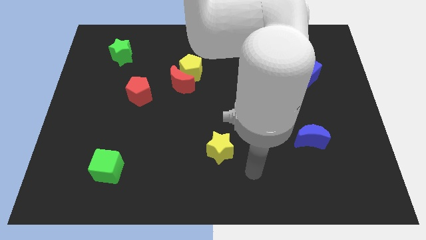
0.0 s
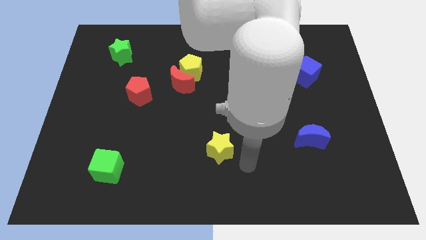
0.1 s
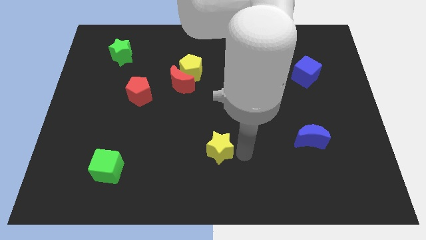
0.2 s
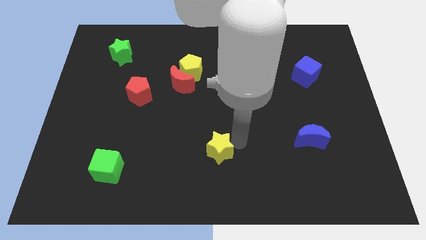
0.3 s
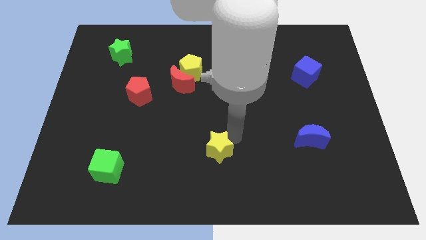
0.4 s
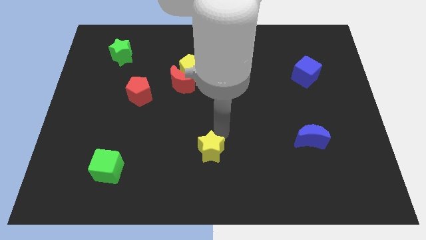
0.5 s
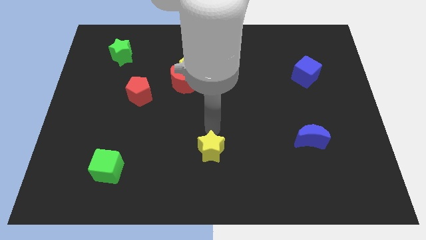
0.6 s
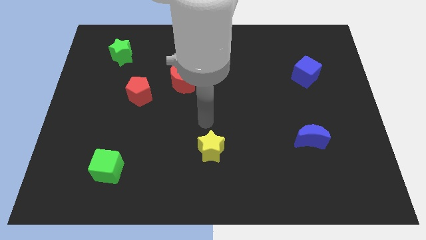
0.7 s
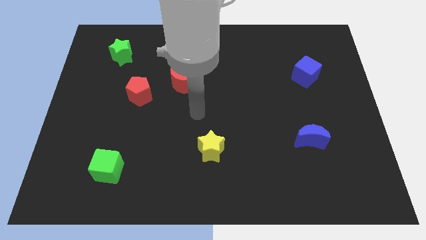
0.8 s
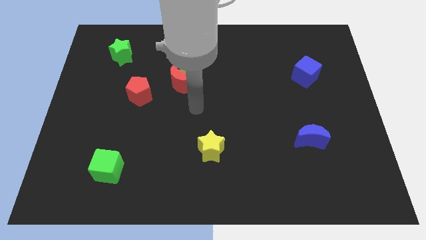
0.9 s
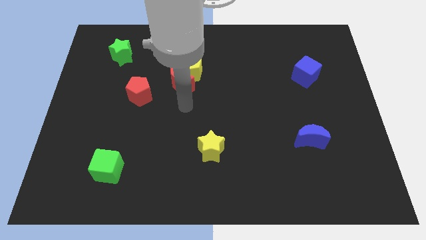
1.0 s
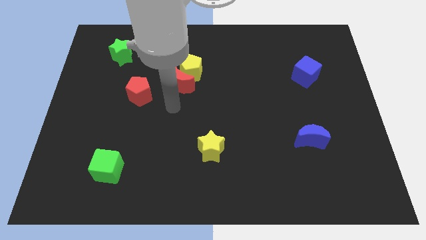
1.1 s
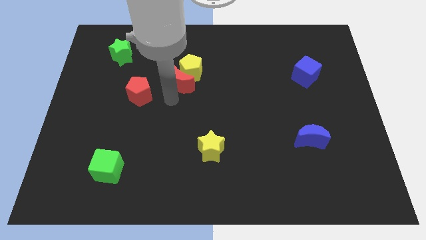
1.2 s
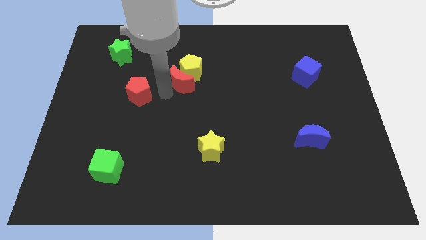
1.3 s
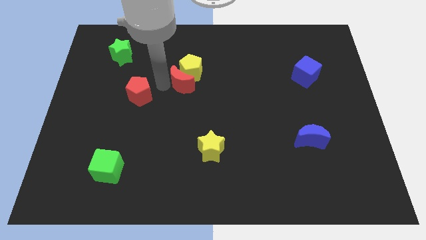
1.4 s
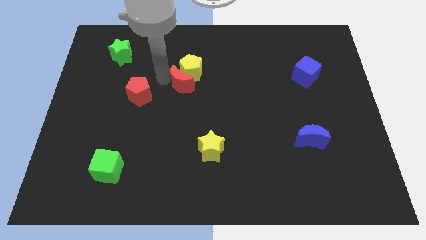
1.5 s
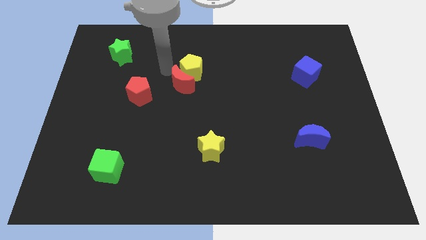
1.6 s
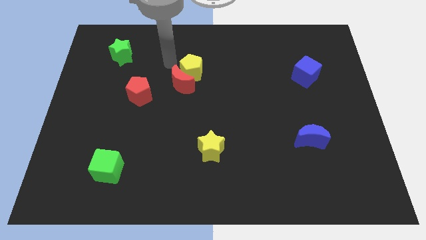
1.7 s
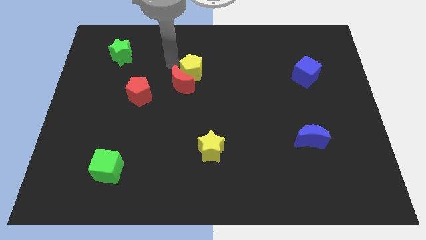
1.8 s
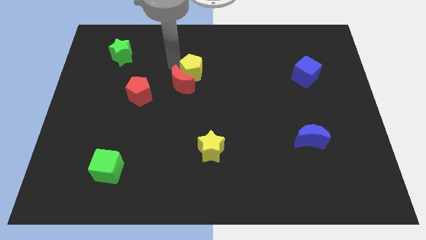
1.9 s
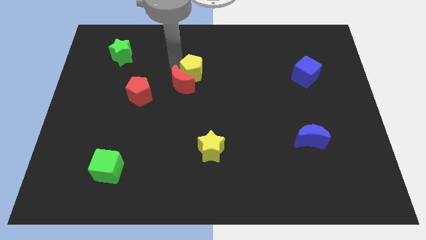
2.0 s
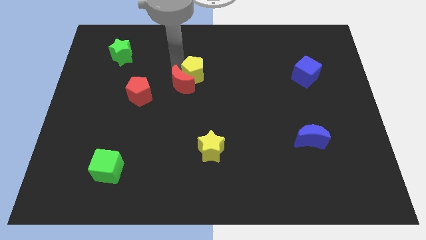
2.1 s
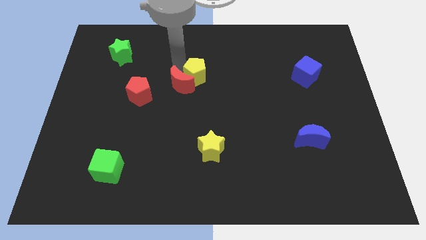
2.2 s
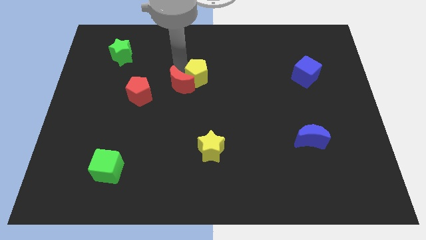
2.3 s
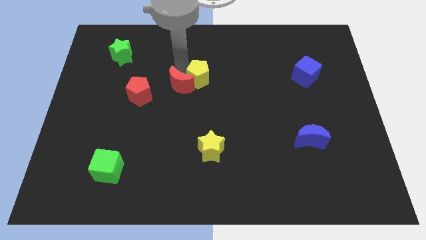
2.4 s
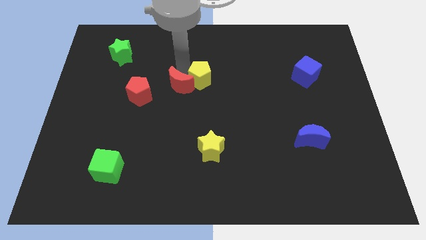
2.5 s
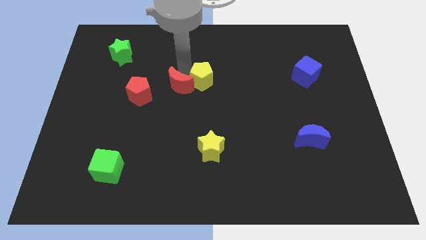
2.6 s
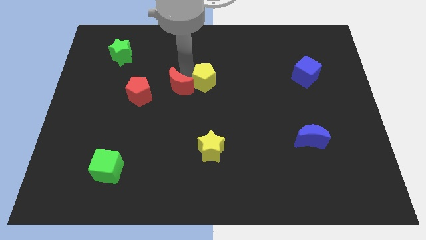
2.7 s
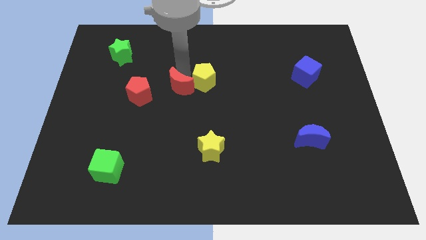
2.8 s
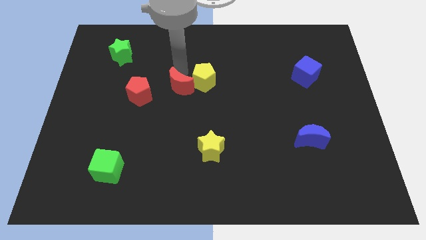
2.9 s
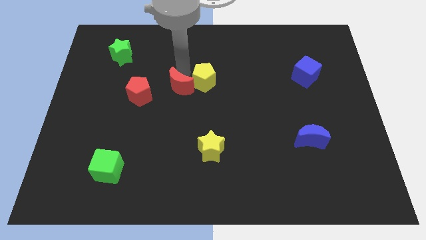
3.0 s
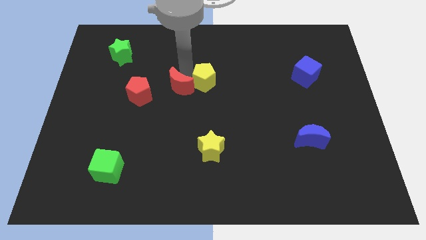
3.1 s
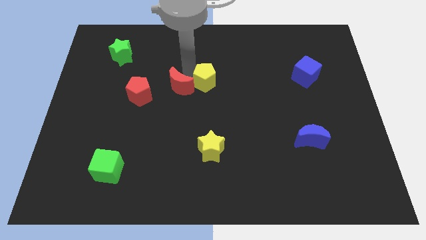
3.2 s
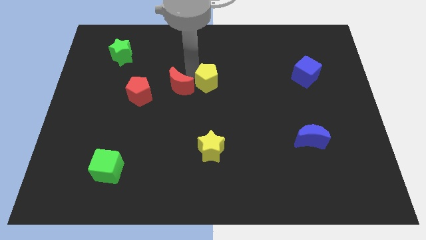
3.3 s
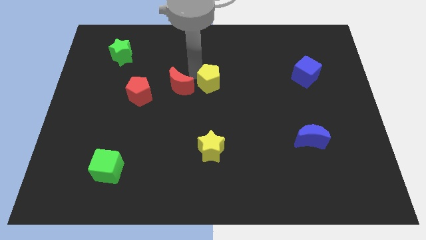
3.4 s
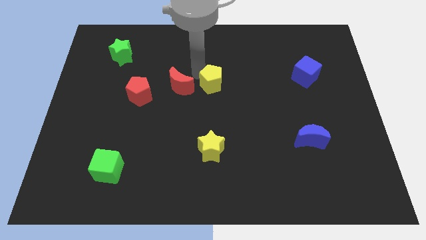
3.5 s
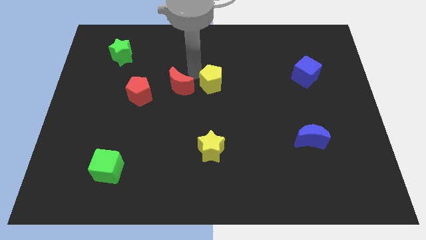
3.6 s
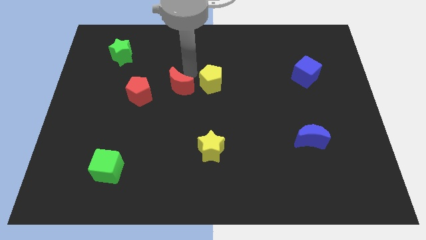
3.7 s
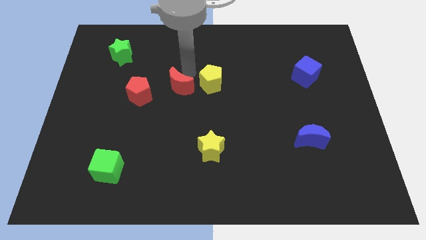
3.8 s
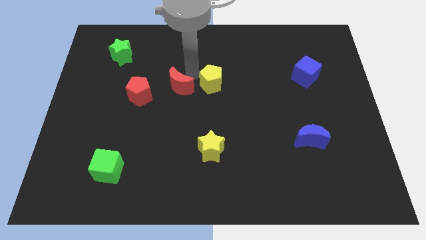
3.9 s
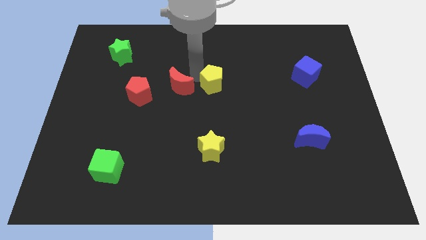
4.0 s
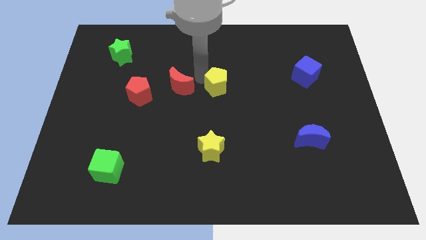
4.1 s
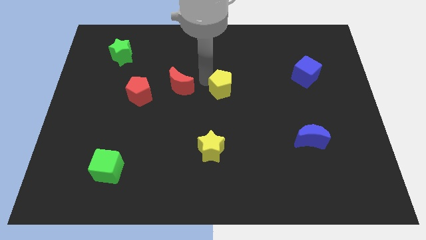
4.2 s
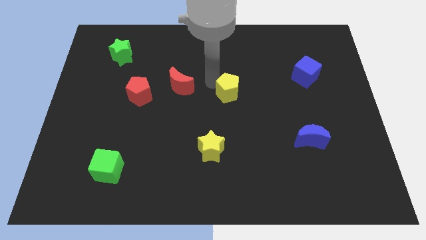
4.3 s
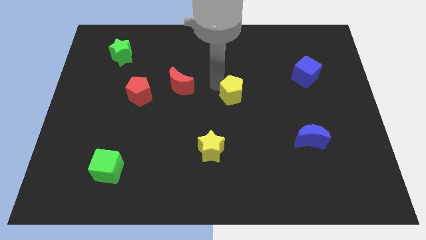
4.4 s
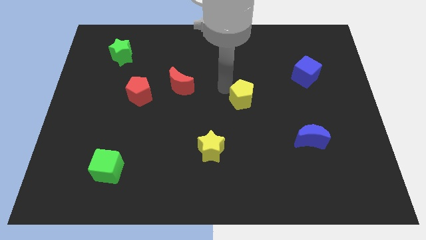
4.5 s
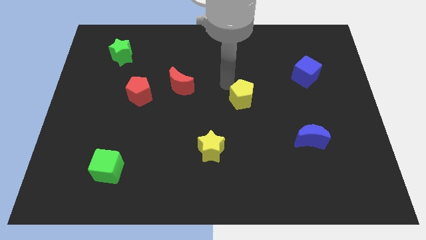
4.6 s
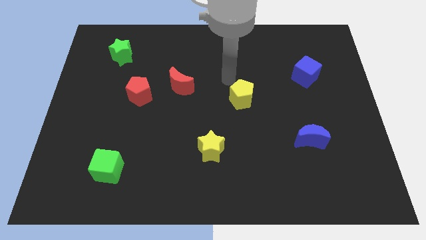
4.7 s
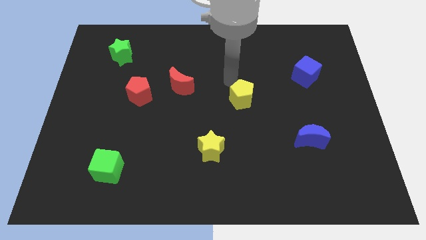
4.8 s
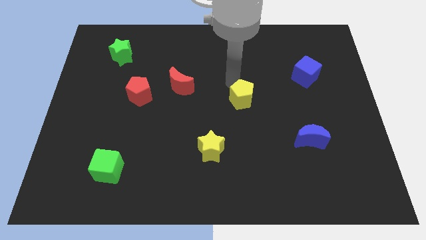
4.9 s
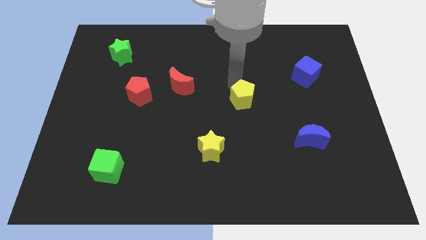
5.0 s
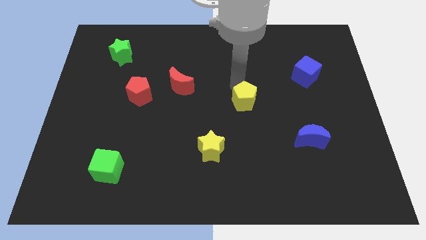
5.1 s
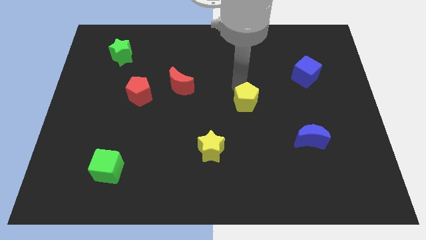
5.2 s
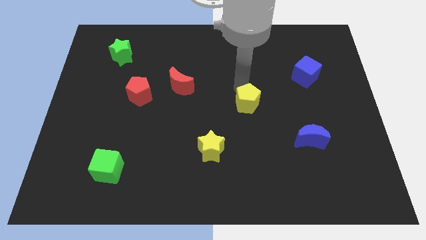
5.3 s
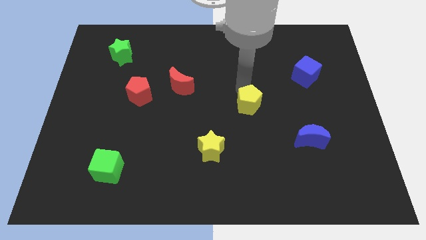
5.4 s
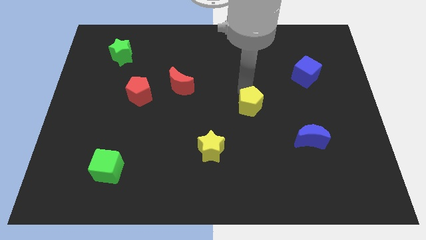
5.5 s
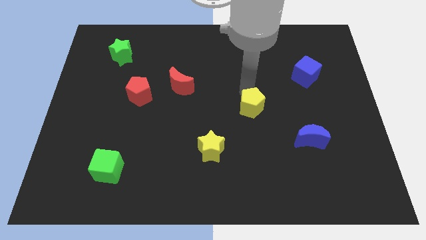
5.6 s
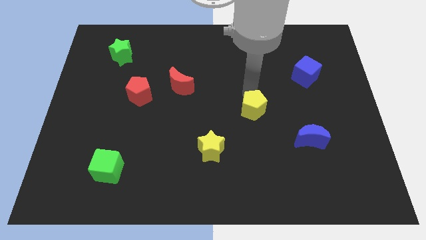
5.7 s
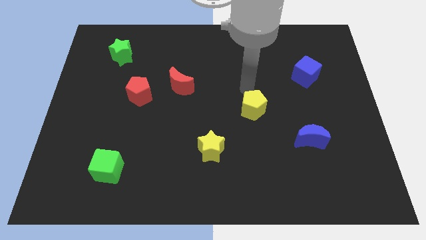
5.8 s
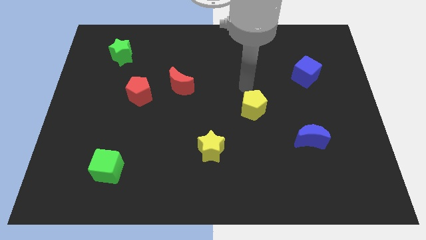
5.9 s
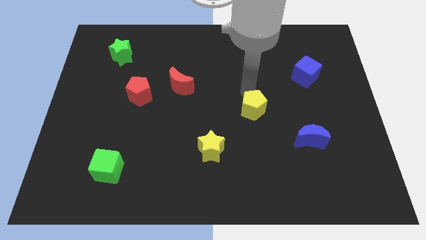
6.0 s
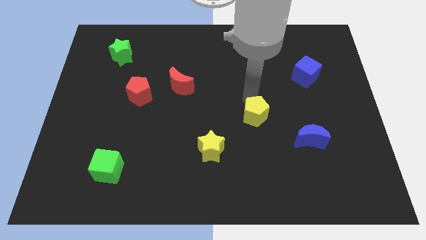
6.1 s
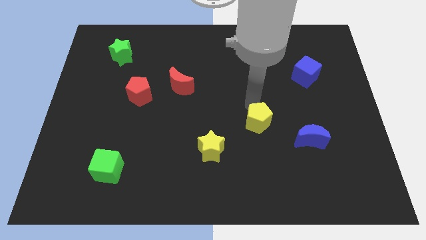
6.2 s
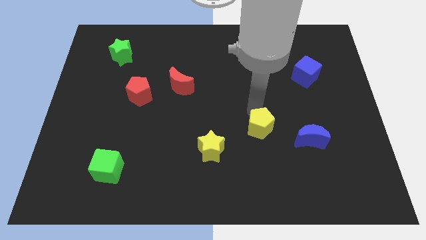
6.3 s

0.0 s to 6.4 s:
push the yellow pentagon just left of the blue moon

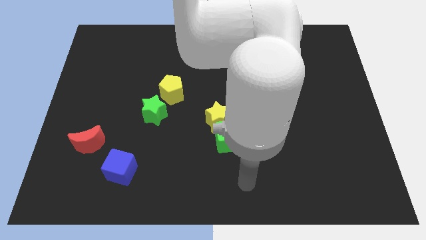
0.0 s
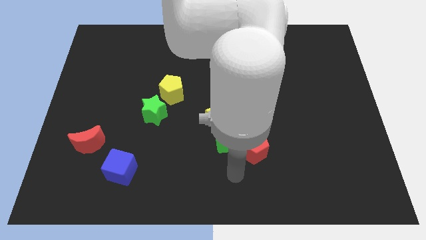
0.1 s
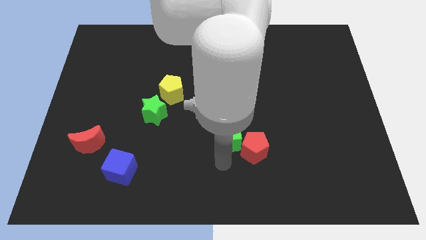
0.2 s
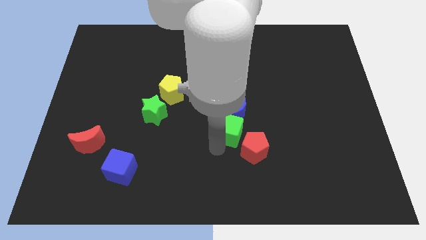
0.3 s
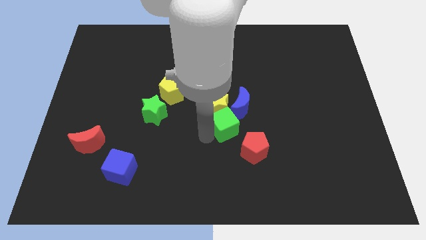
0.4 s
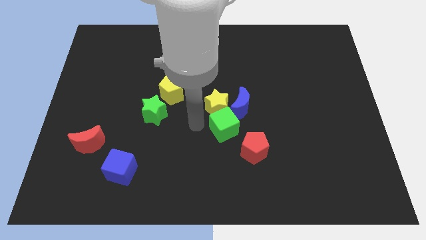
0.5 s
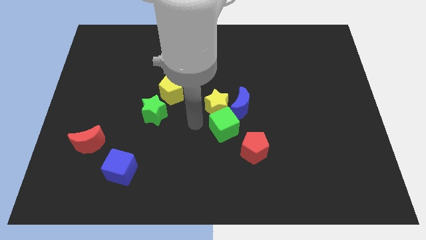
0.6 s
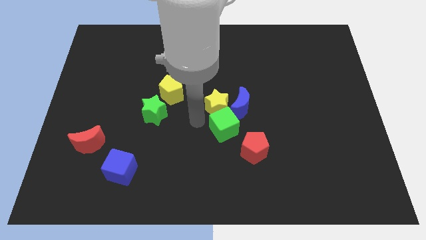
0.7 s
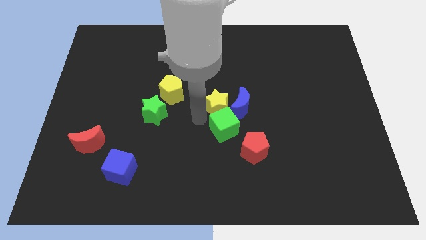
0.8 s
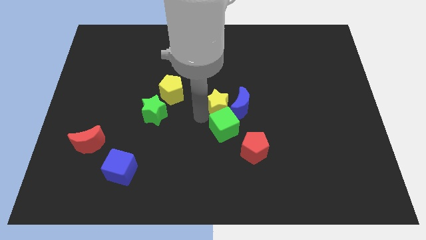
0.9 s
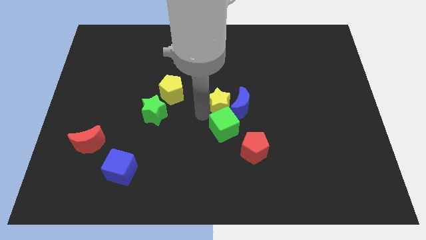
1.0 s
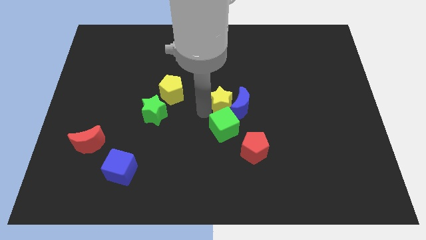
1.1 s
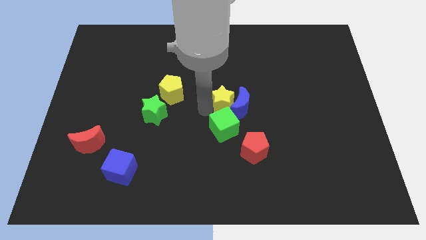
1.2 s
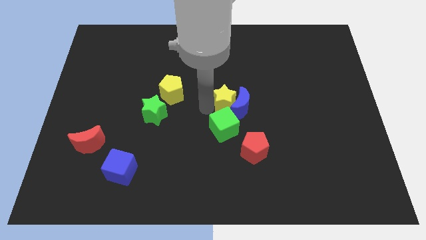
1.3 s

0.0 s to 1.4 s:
put the yellow star diagonally up and to the right of the green cube

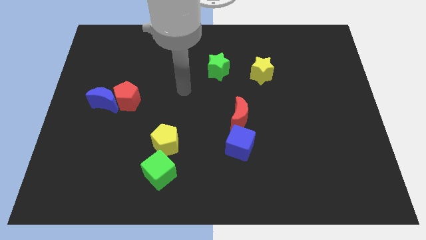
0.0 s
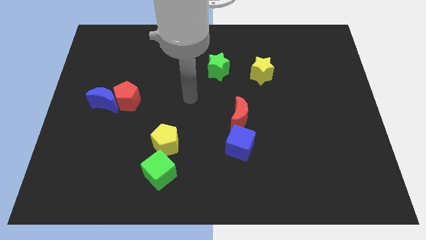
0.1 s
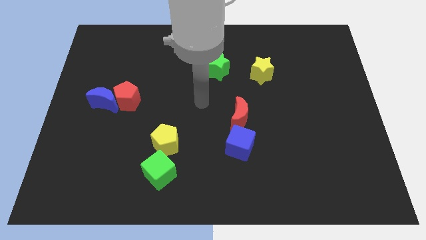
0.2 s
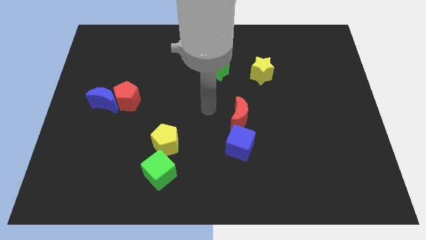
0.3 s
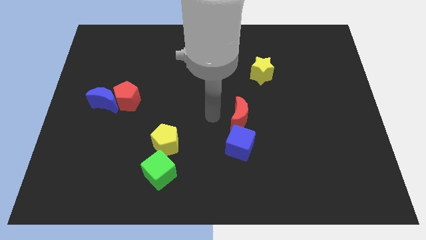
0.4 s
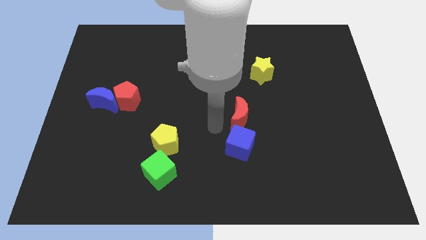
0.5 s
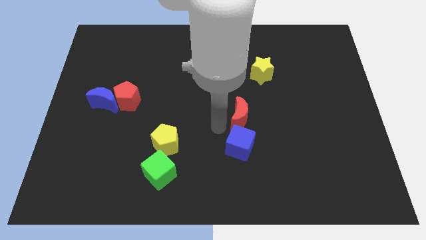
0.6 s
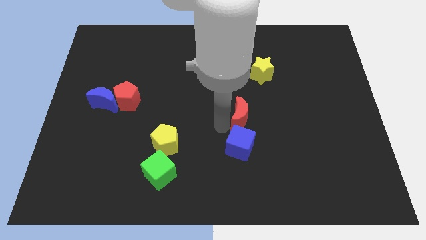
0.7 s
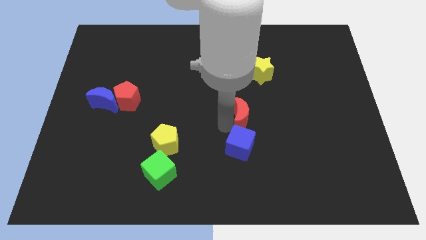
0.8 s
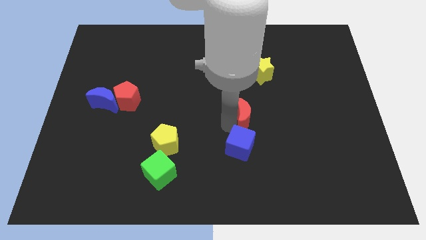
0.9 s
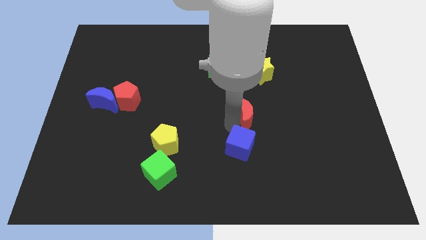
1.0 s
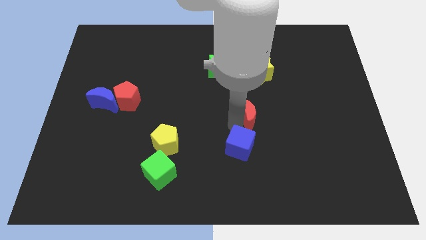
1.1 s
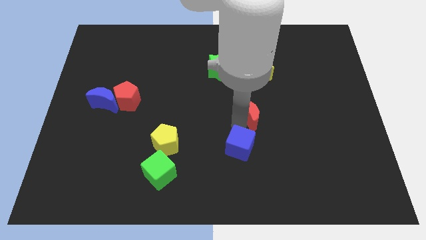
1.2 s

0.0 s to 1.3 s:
move the red moon to the bottom side of the yellow star
